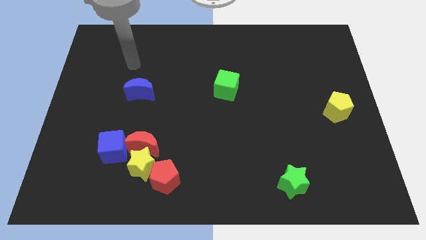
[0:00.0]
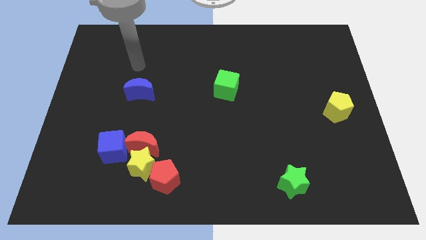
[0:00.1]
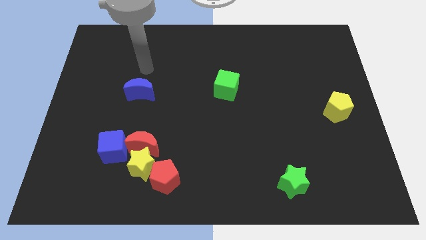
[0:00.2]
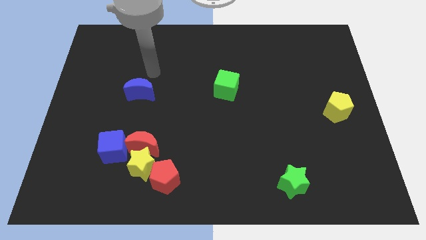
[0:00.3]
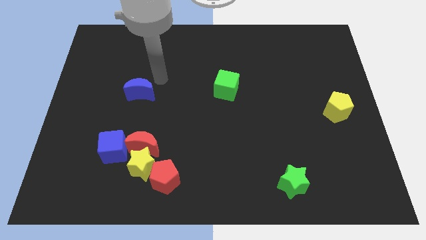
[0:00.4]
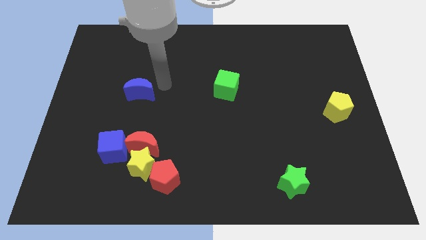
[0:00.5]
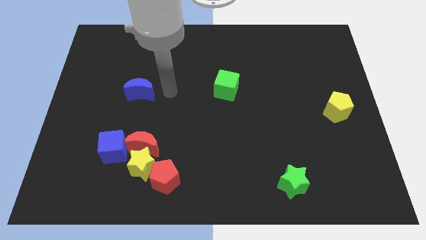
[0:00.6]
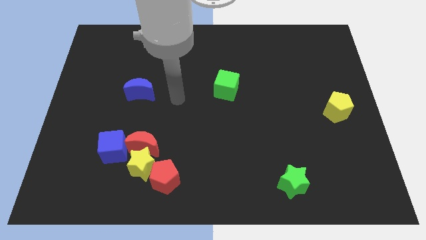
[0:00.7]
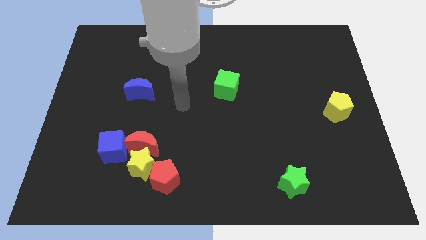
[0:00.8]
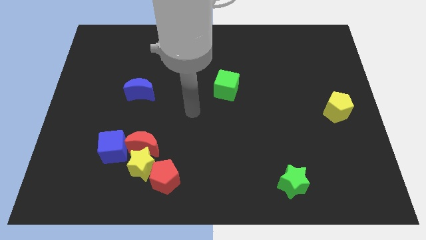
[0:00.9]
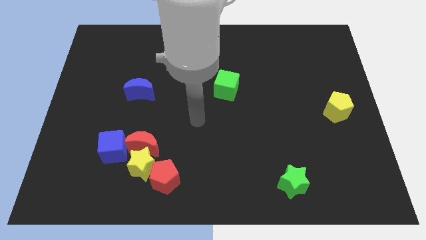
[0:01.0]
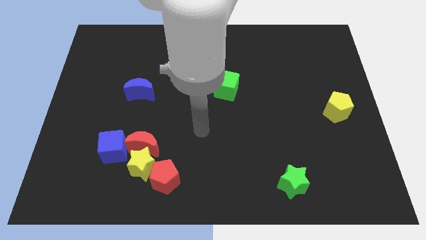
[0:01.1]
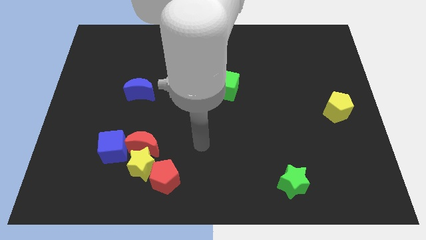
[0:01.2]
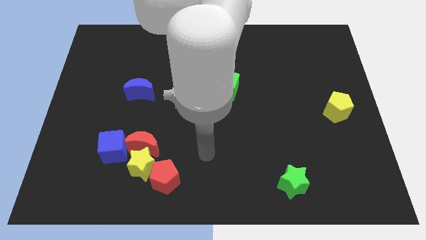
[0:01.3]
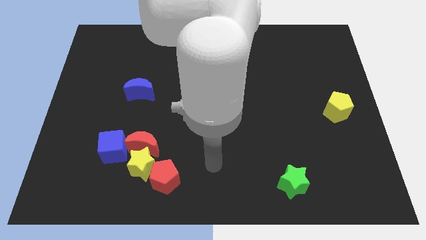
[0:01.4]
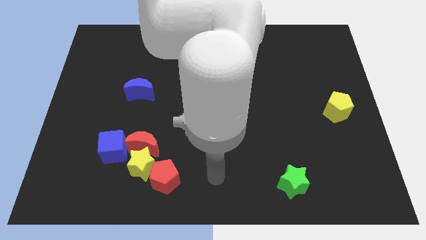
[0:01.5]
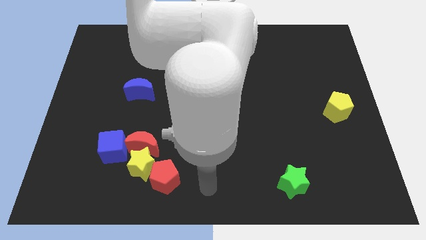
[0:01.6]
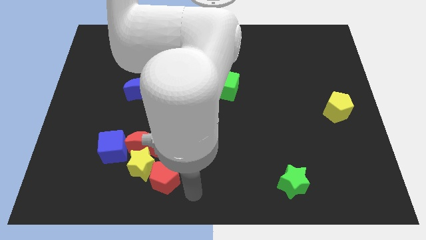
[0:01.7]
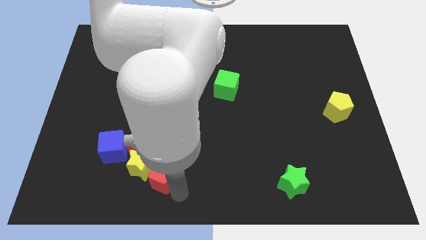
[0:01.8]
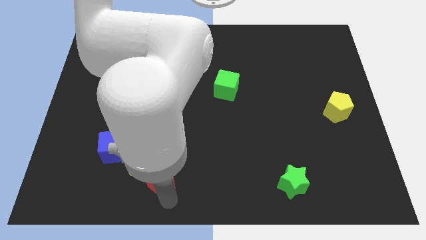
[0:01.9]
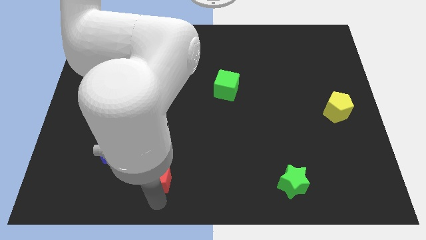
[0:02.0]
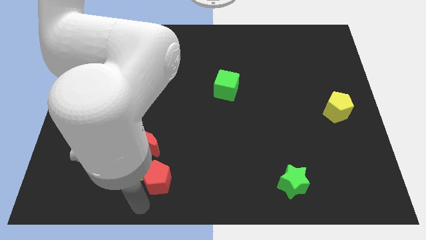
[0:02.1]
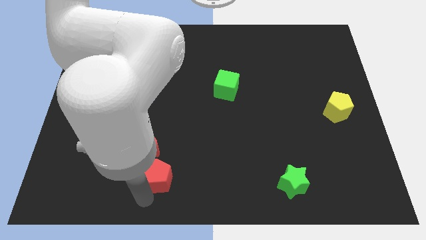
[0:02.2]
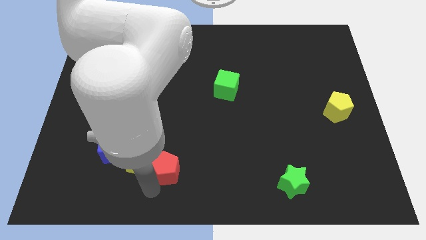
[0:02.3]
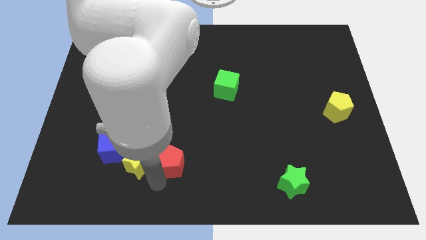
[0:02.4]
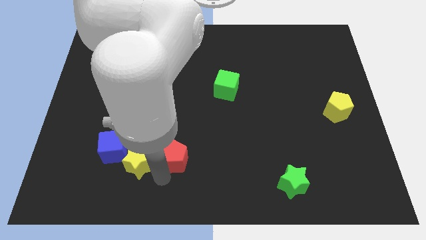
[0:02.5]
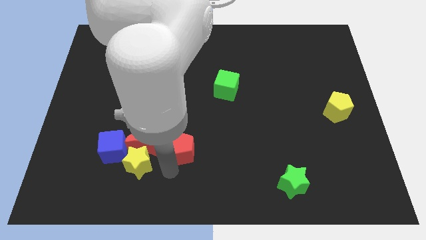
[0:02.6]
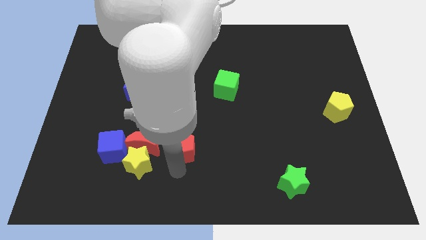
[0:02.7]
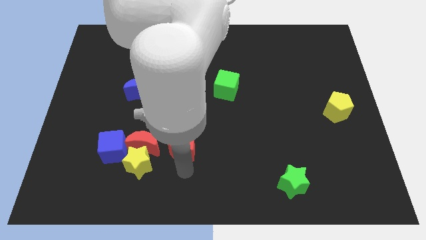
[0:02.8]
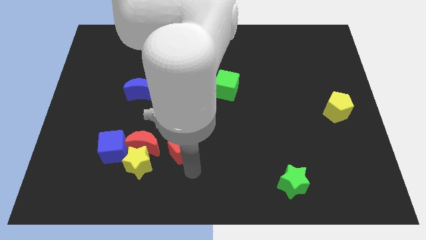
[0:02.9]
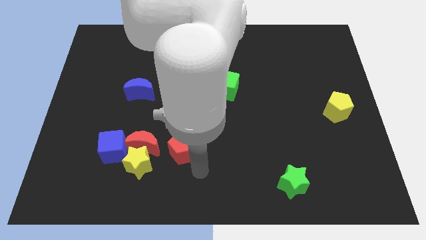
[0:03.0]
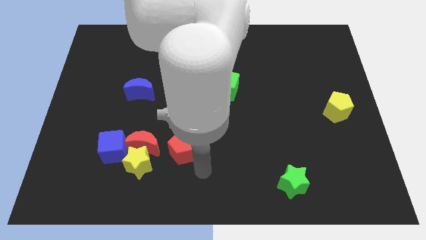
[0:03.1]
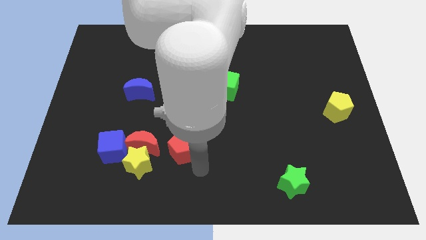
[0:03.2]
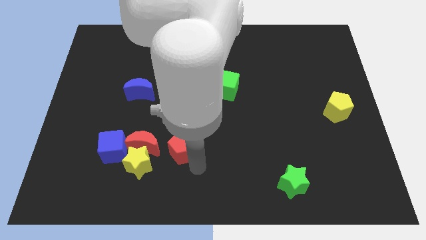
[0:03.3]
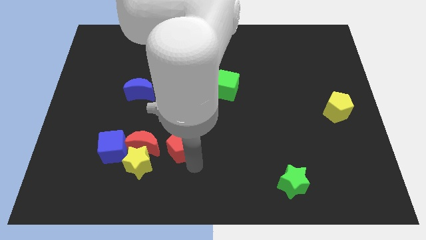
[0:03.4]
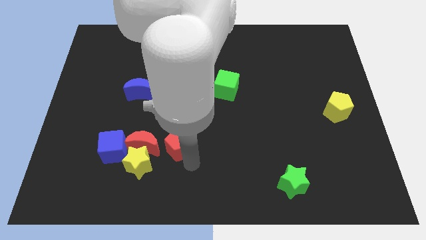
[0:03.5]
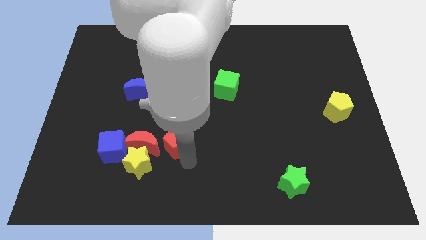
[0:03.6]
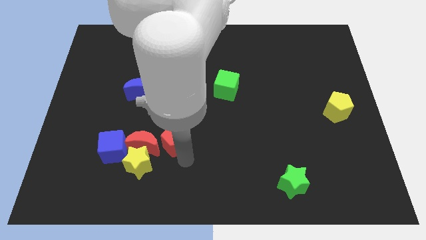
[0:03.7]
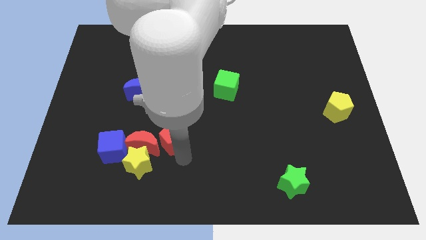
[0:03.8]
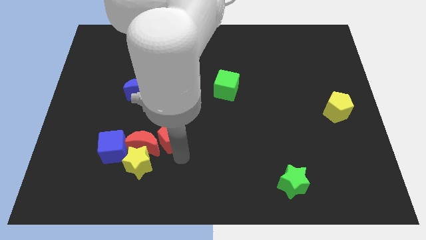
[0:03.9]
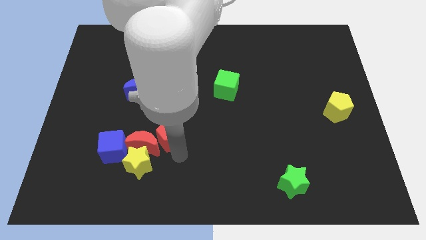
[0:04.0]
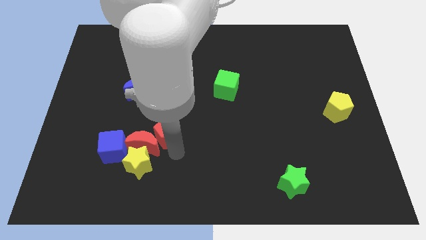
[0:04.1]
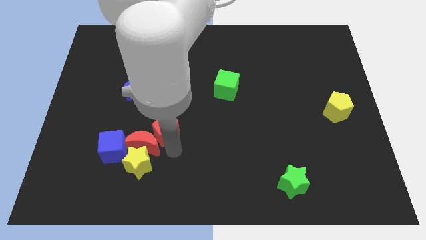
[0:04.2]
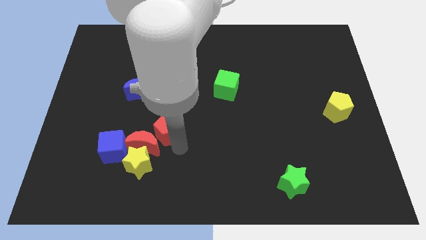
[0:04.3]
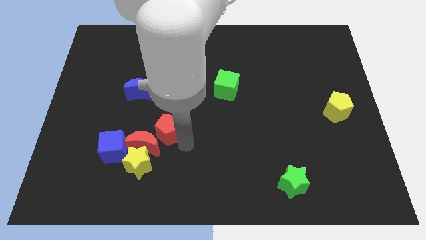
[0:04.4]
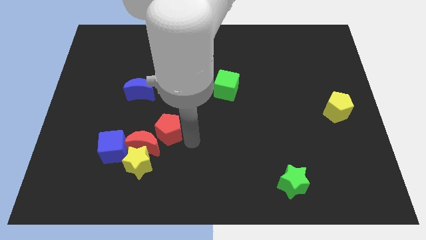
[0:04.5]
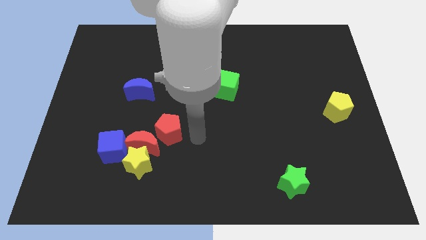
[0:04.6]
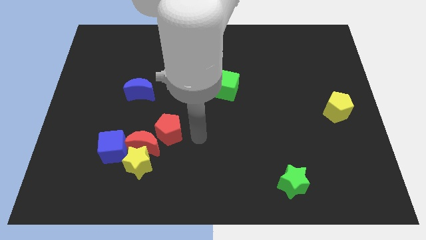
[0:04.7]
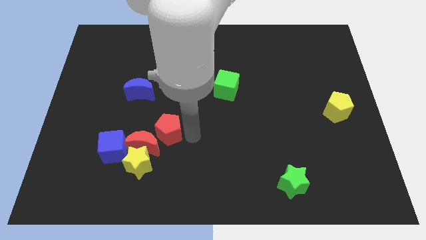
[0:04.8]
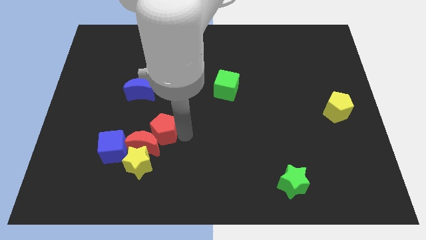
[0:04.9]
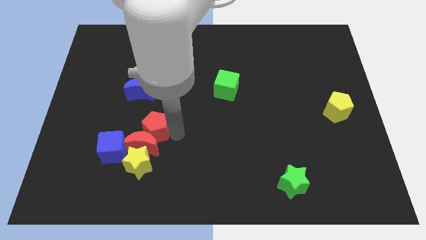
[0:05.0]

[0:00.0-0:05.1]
slightly move the red pentagon diagonally upwards and to the left

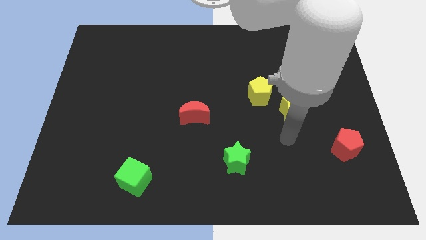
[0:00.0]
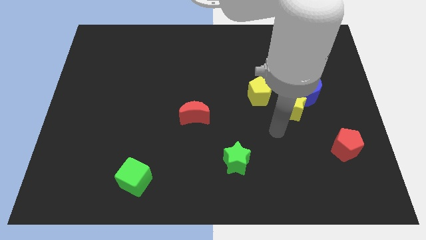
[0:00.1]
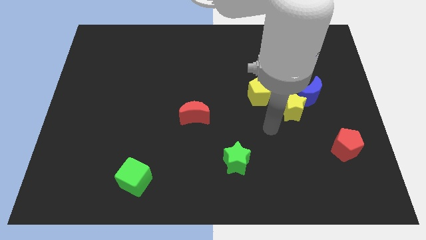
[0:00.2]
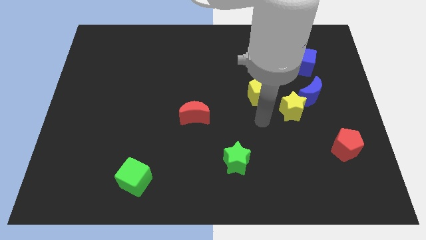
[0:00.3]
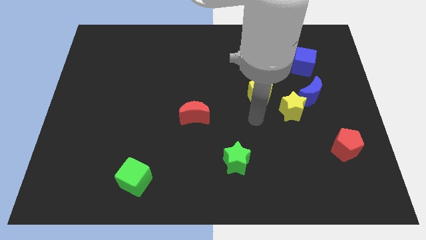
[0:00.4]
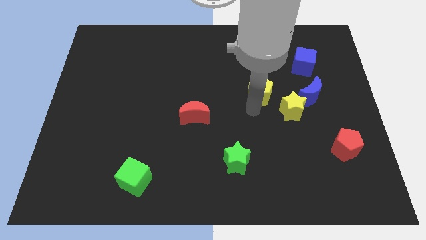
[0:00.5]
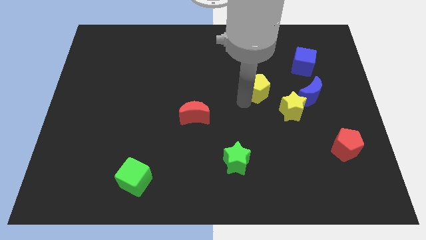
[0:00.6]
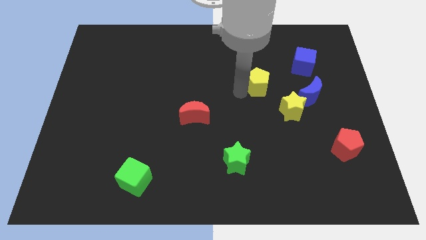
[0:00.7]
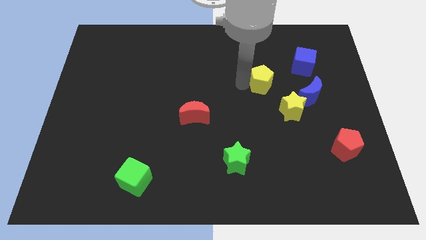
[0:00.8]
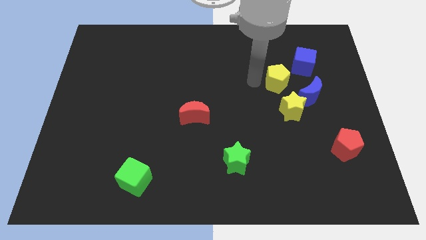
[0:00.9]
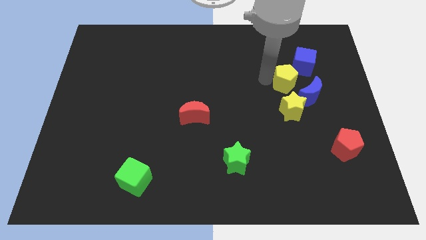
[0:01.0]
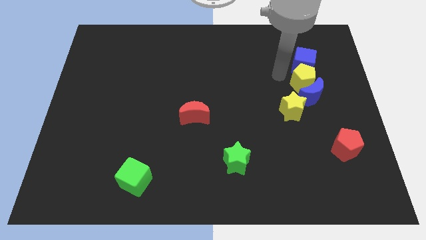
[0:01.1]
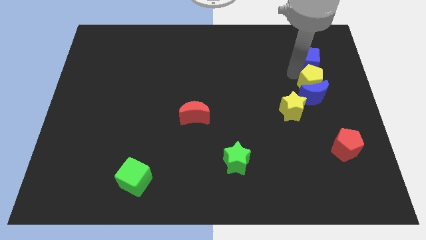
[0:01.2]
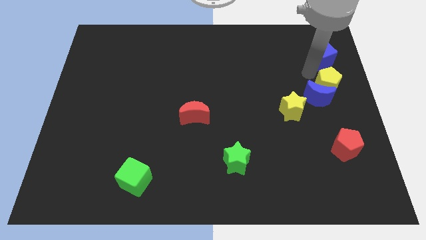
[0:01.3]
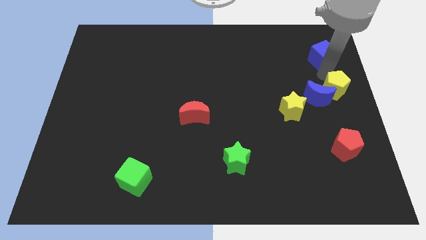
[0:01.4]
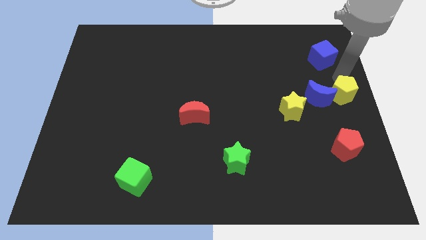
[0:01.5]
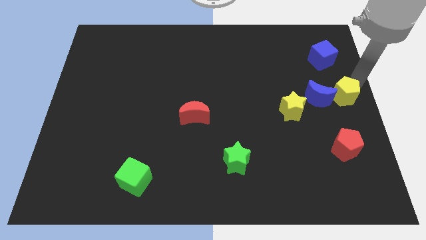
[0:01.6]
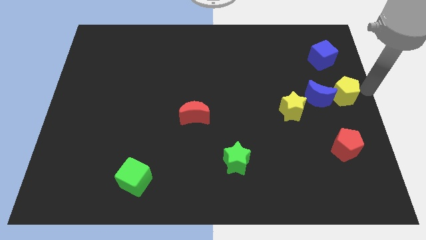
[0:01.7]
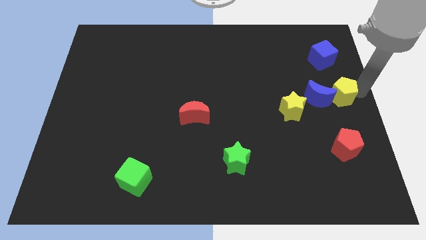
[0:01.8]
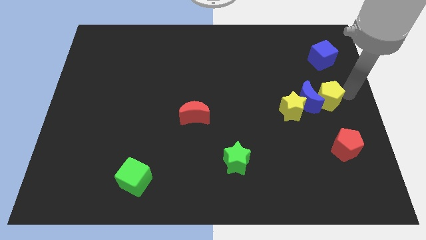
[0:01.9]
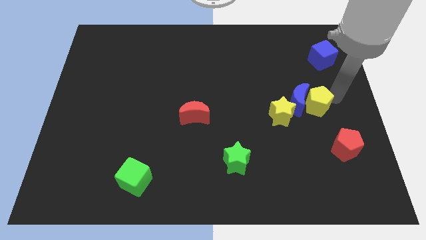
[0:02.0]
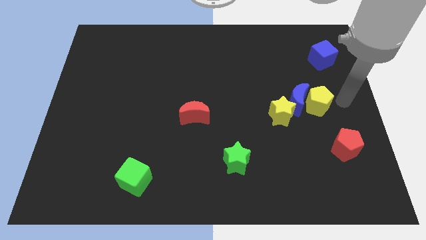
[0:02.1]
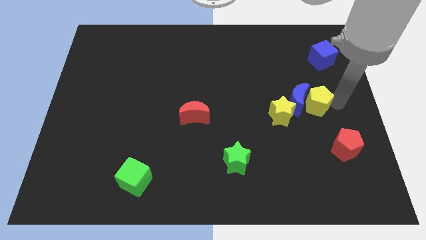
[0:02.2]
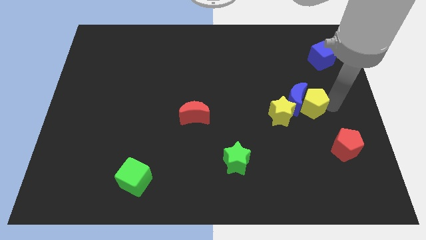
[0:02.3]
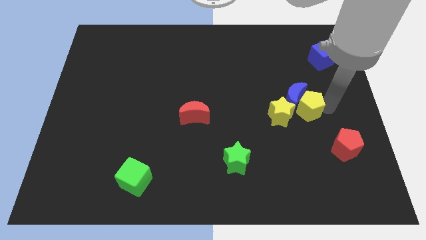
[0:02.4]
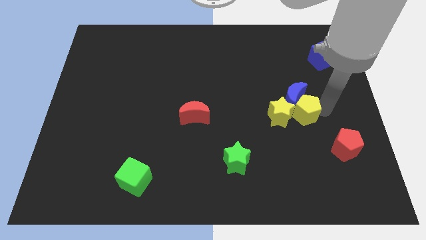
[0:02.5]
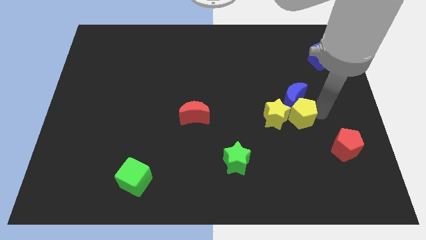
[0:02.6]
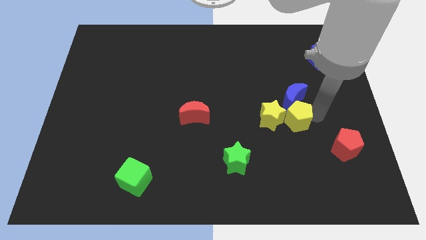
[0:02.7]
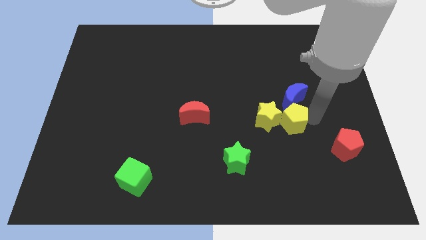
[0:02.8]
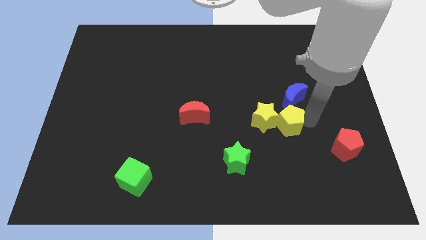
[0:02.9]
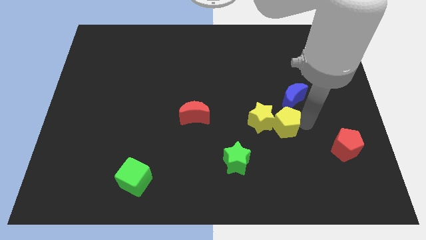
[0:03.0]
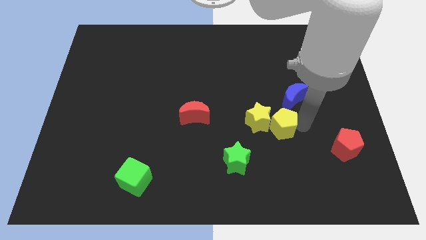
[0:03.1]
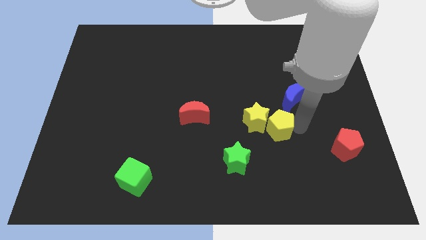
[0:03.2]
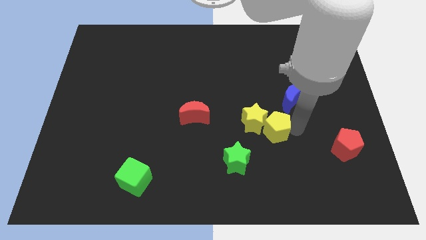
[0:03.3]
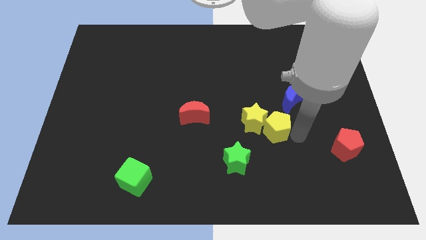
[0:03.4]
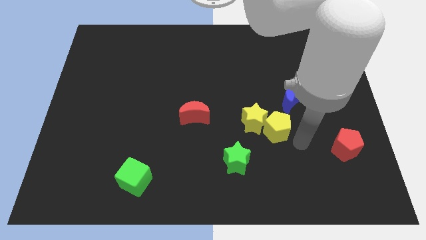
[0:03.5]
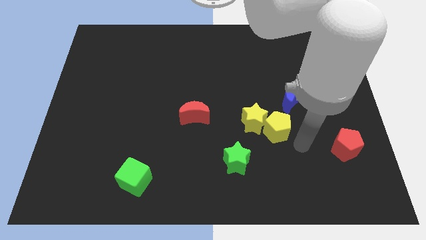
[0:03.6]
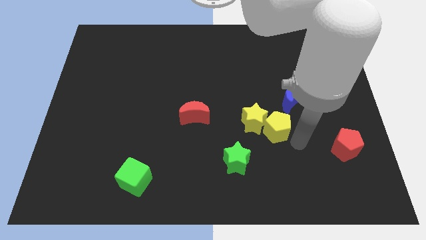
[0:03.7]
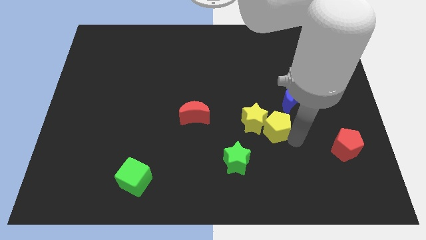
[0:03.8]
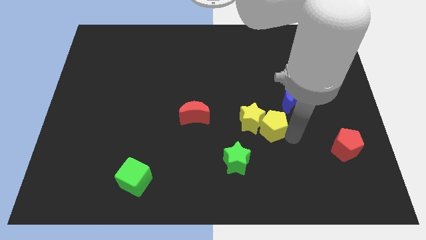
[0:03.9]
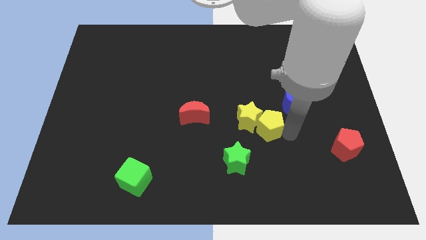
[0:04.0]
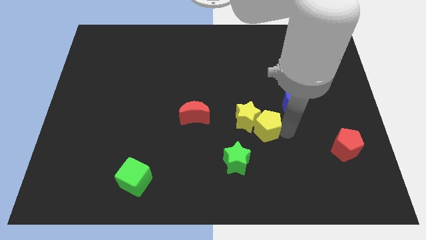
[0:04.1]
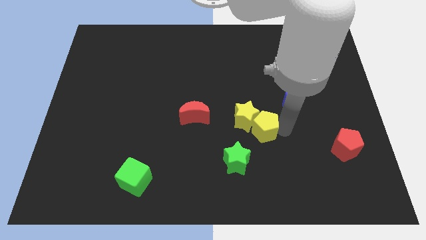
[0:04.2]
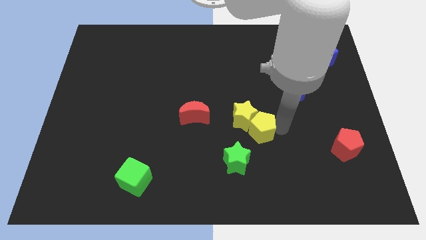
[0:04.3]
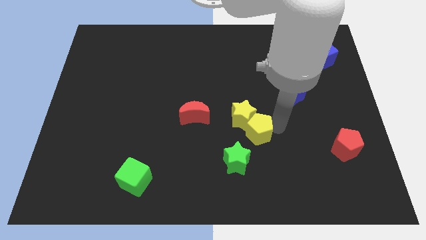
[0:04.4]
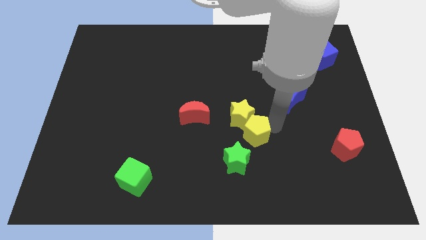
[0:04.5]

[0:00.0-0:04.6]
slide the yellow pentagon down and left diagonally a bit
